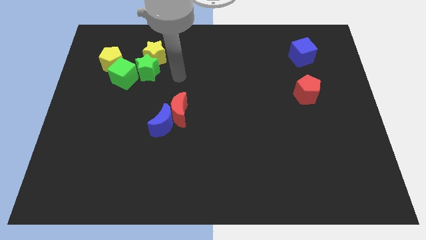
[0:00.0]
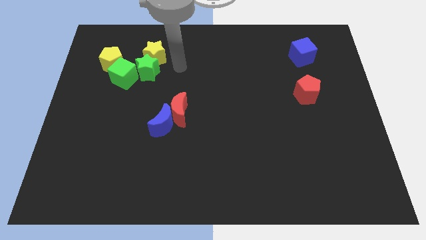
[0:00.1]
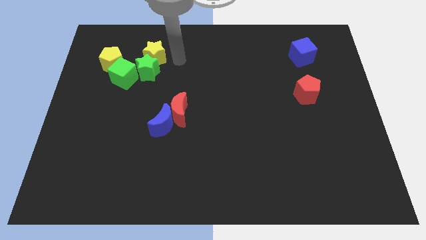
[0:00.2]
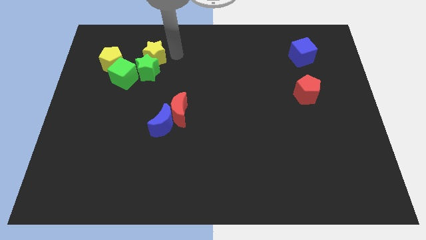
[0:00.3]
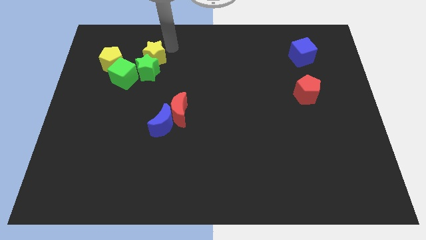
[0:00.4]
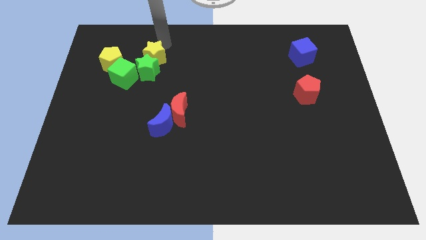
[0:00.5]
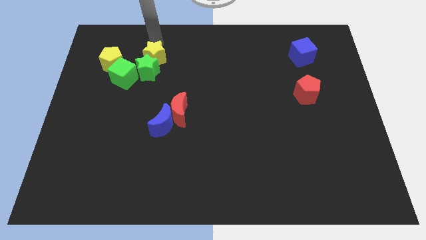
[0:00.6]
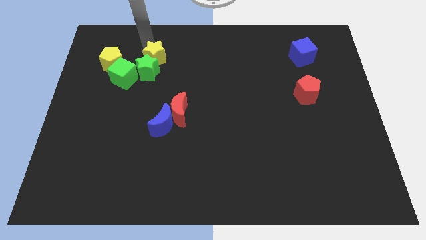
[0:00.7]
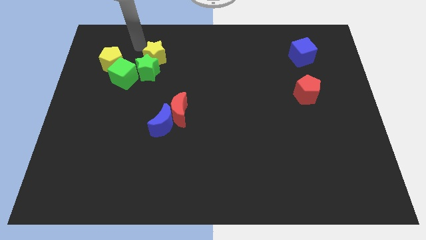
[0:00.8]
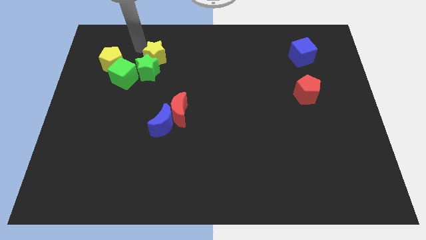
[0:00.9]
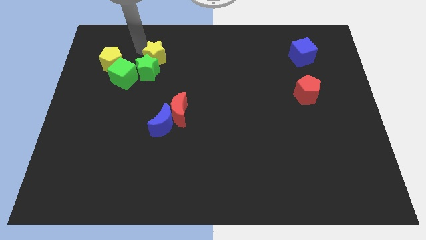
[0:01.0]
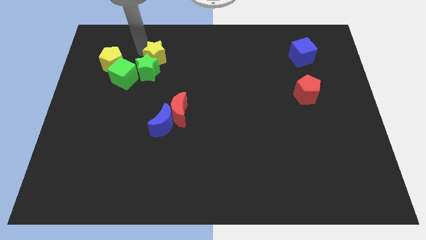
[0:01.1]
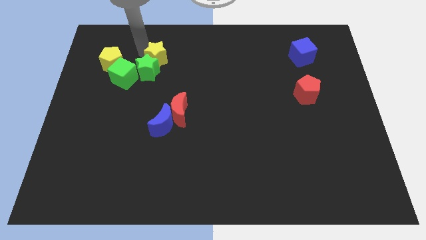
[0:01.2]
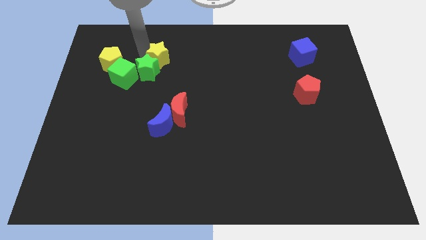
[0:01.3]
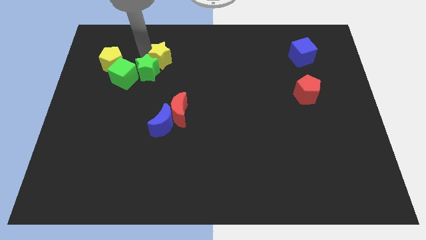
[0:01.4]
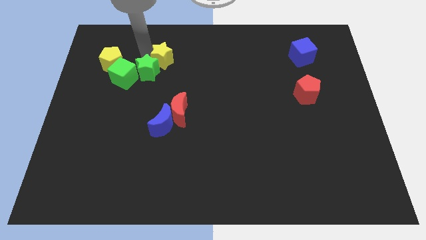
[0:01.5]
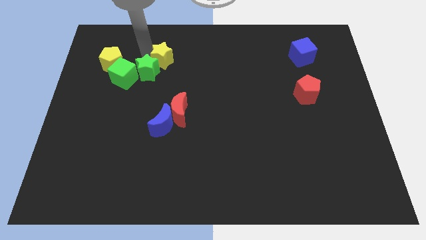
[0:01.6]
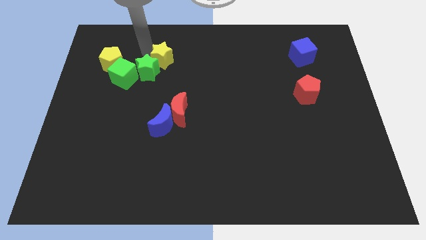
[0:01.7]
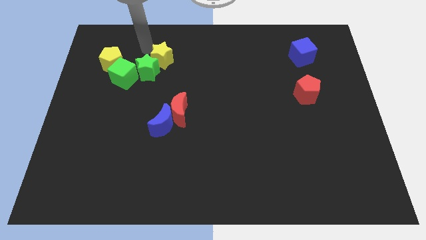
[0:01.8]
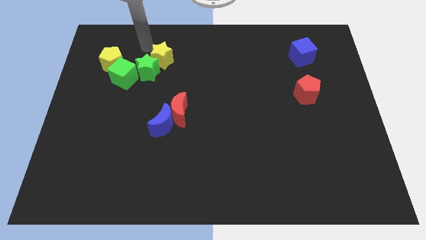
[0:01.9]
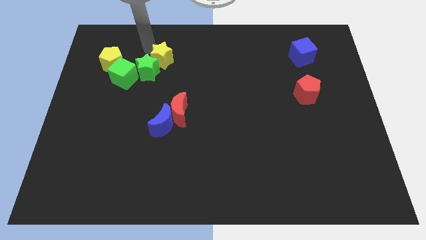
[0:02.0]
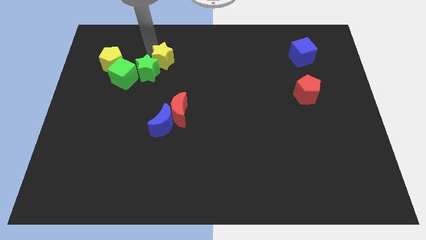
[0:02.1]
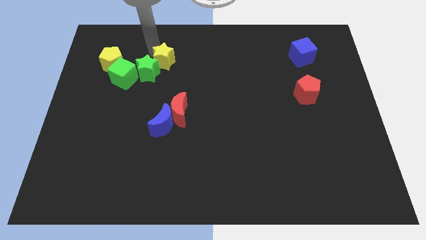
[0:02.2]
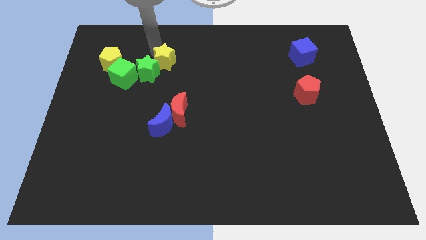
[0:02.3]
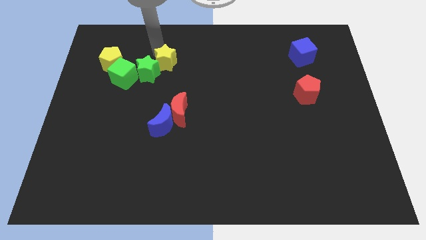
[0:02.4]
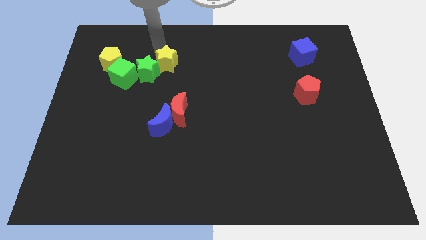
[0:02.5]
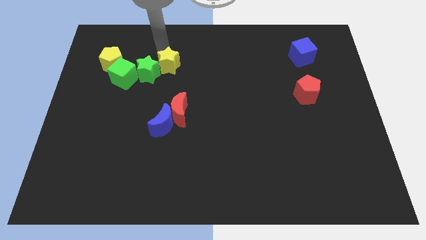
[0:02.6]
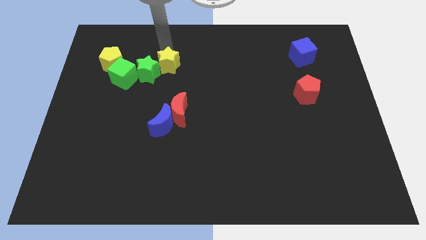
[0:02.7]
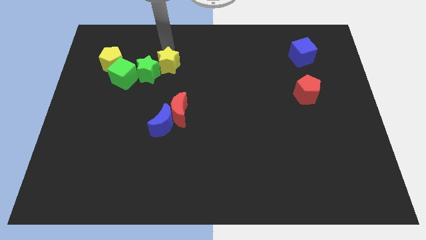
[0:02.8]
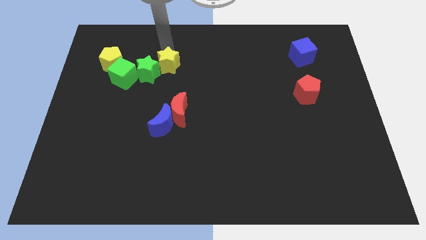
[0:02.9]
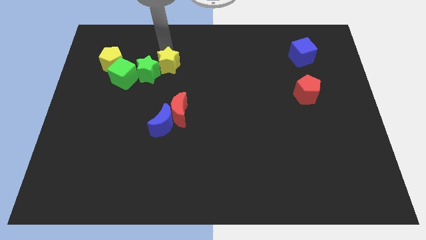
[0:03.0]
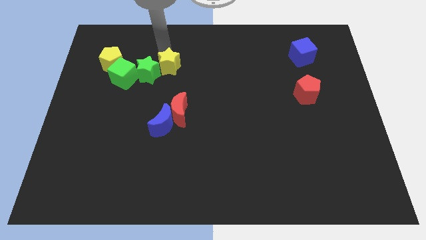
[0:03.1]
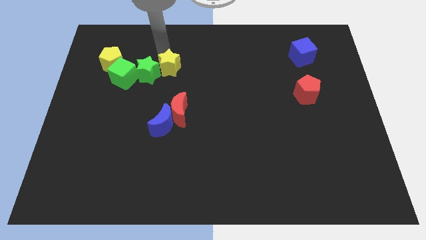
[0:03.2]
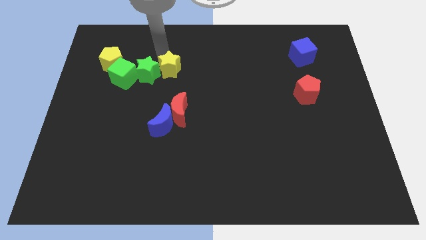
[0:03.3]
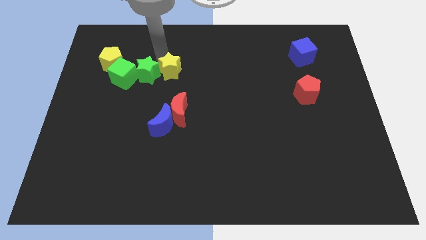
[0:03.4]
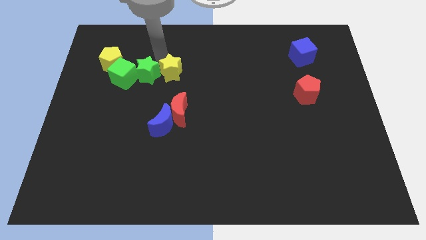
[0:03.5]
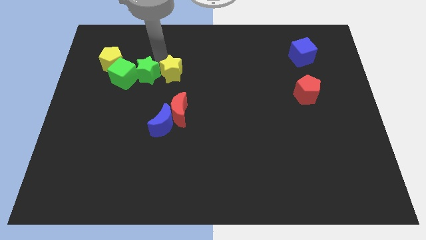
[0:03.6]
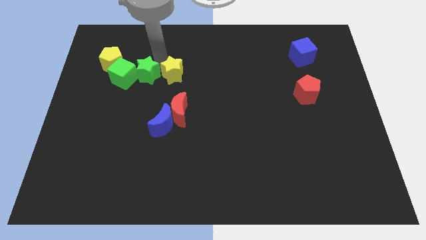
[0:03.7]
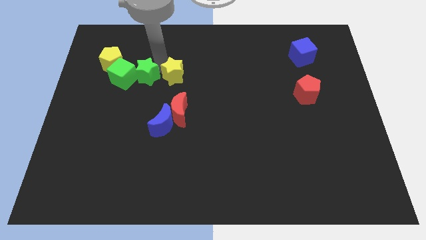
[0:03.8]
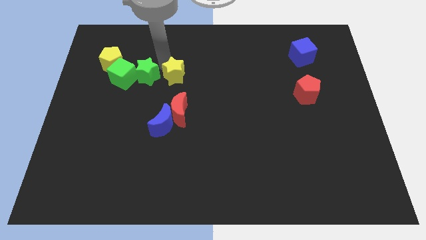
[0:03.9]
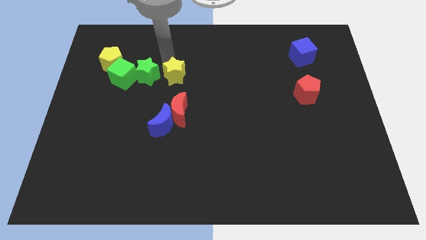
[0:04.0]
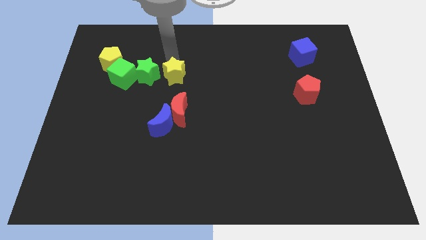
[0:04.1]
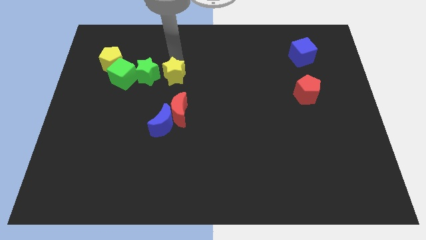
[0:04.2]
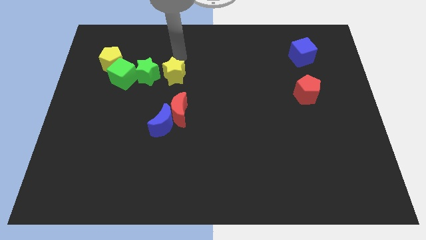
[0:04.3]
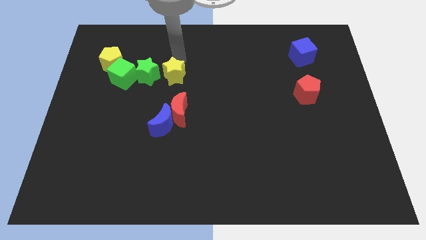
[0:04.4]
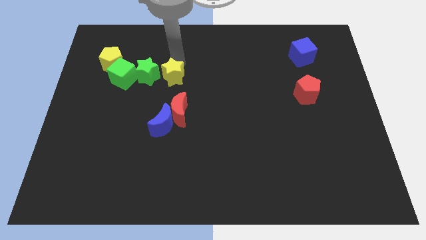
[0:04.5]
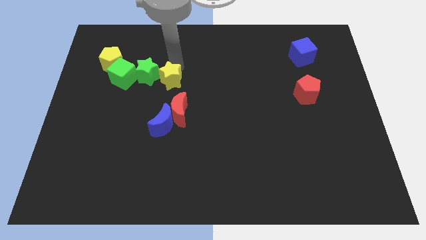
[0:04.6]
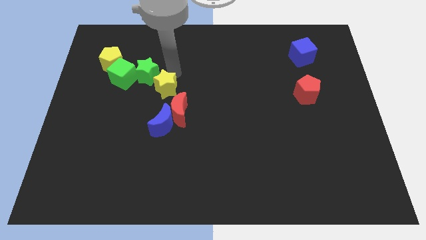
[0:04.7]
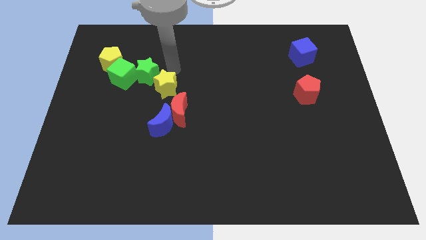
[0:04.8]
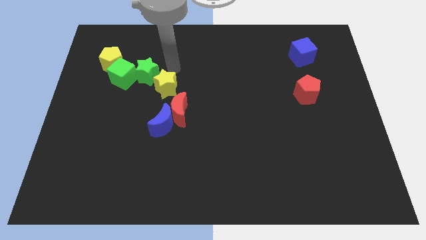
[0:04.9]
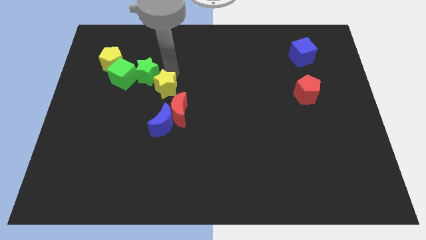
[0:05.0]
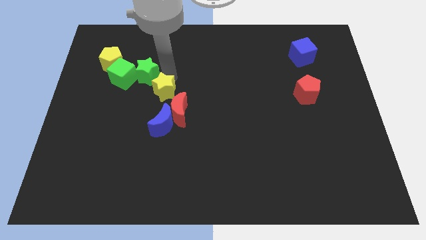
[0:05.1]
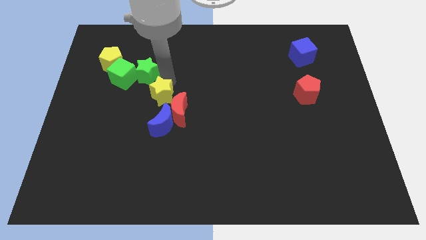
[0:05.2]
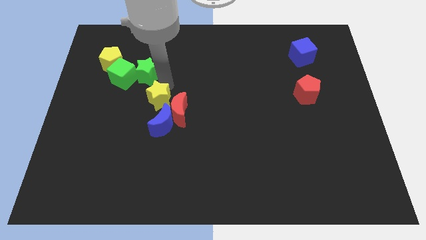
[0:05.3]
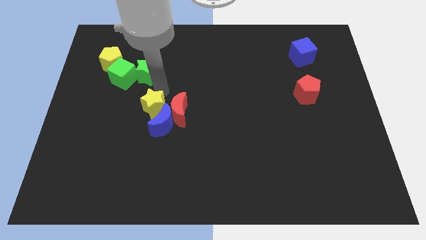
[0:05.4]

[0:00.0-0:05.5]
slide the yellow star to the blue moon
